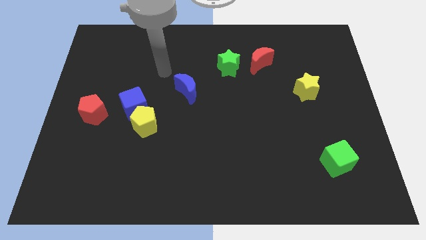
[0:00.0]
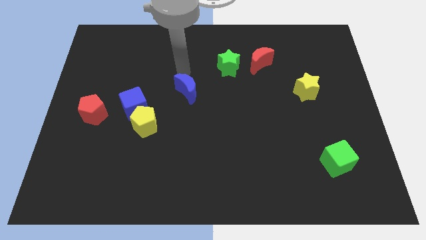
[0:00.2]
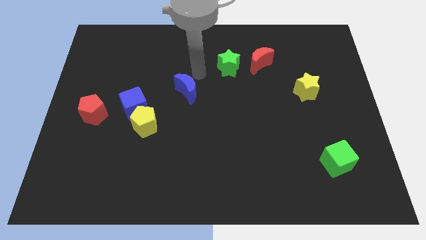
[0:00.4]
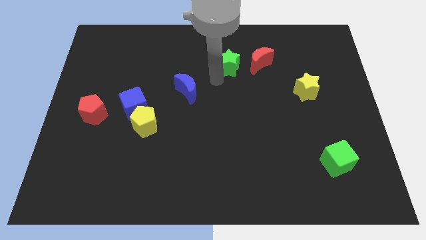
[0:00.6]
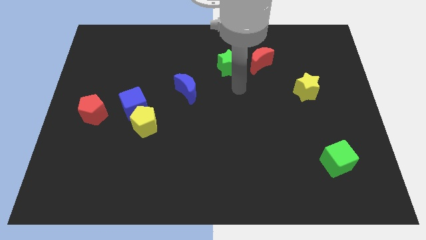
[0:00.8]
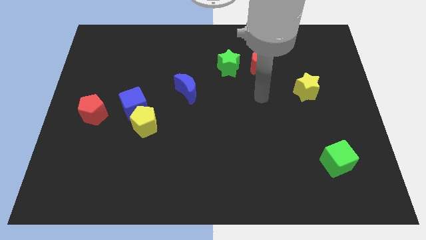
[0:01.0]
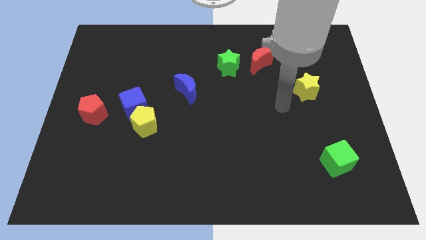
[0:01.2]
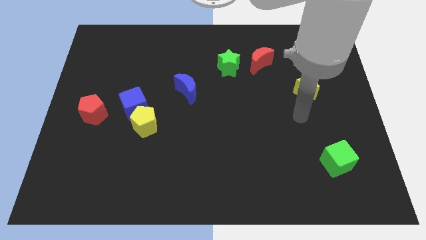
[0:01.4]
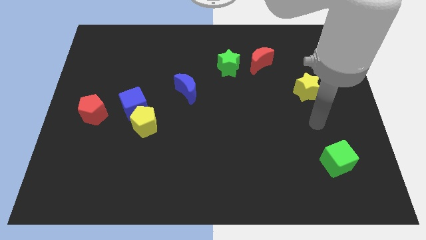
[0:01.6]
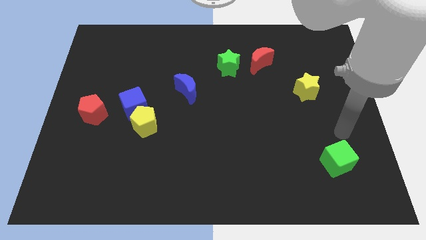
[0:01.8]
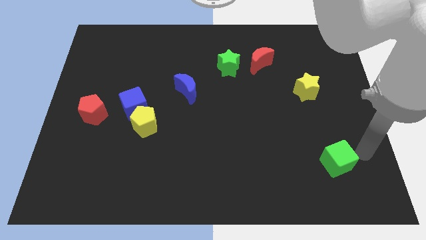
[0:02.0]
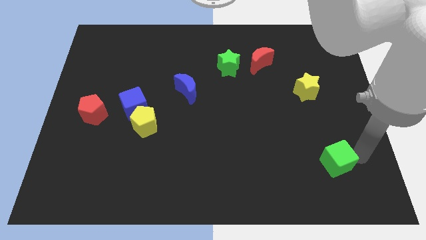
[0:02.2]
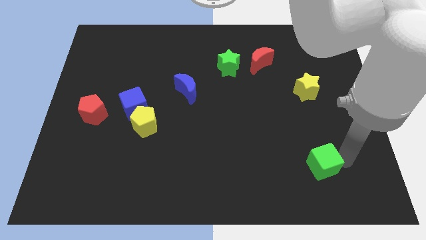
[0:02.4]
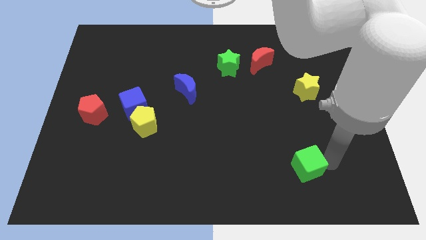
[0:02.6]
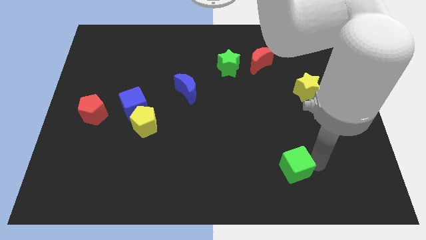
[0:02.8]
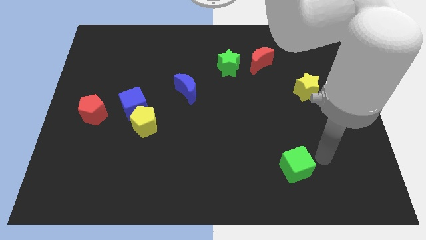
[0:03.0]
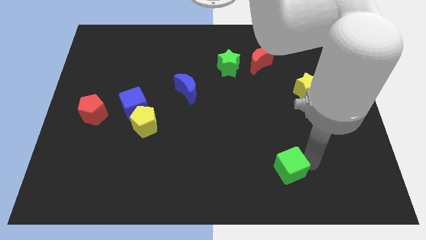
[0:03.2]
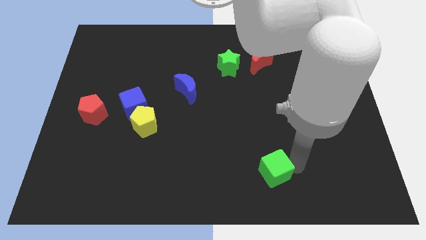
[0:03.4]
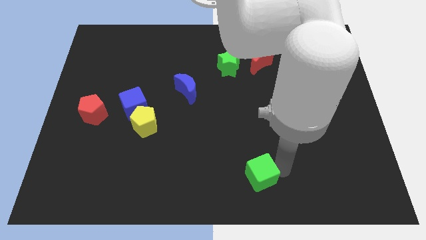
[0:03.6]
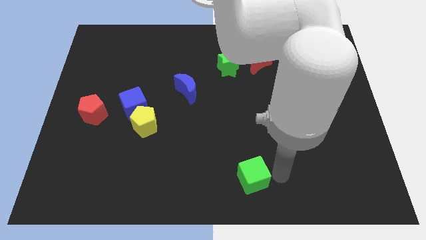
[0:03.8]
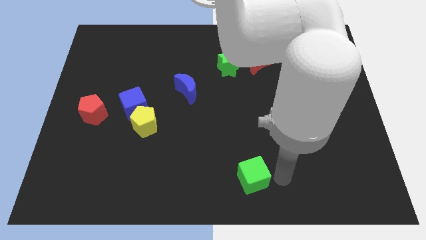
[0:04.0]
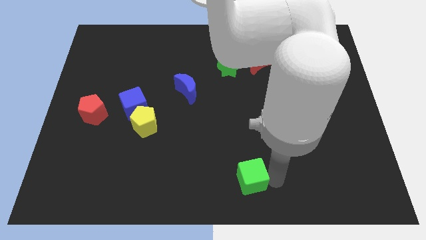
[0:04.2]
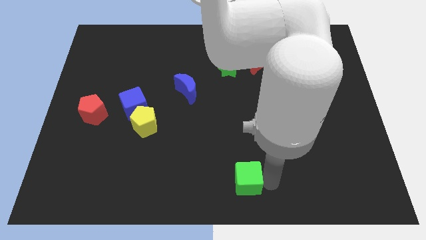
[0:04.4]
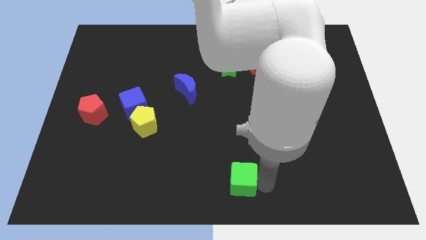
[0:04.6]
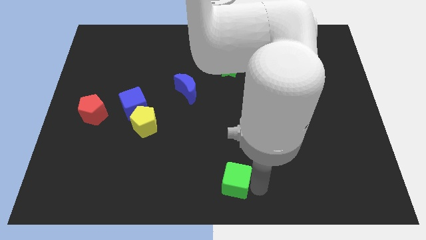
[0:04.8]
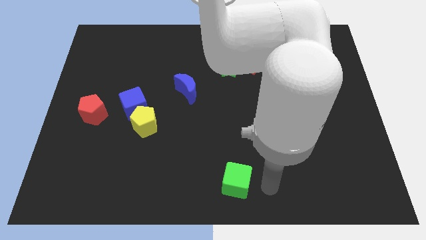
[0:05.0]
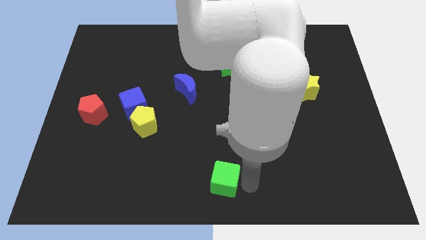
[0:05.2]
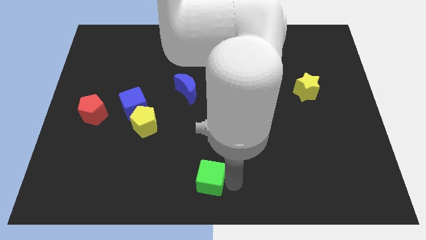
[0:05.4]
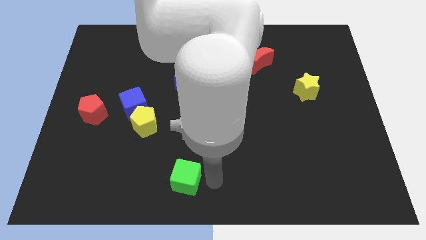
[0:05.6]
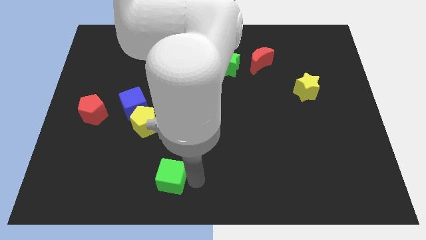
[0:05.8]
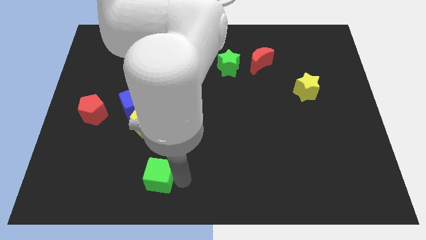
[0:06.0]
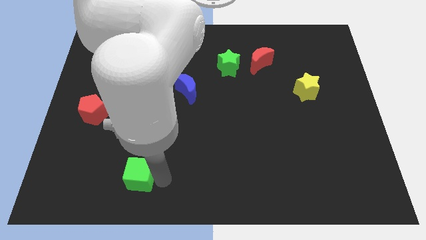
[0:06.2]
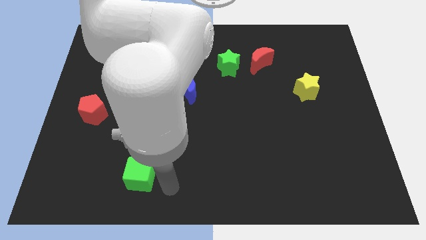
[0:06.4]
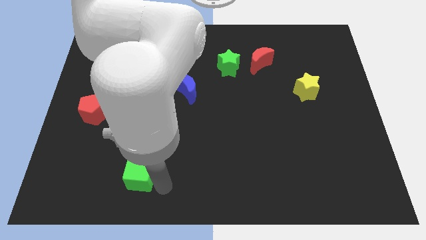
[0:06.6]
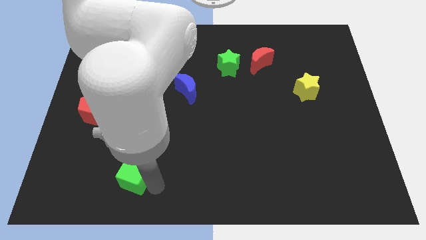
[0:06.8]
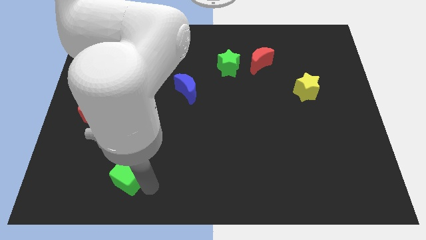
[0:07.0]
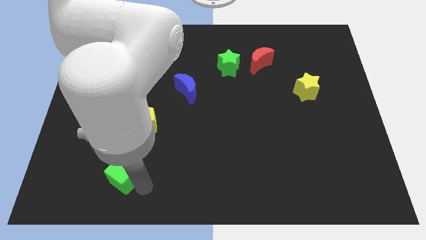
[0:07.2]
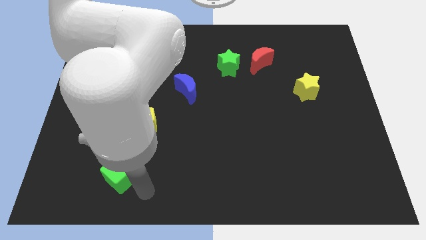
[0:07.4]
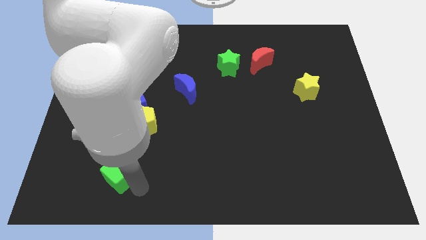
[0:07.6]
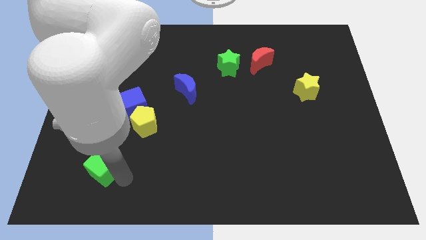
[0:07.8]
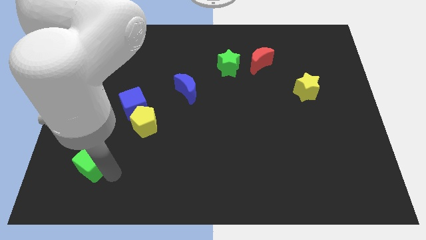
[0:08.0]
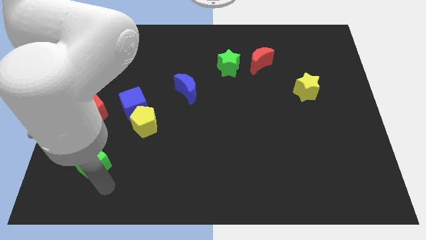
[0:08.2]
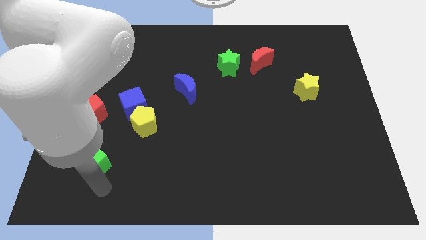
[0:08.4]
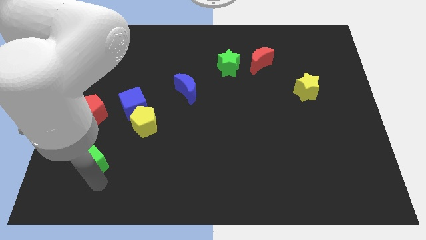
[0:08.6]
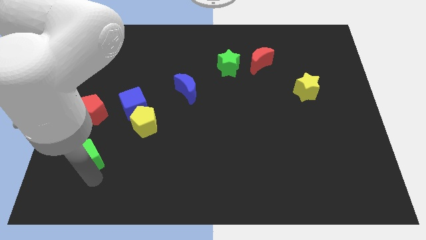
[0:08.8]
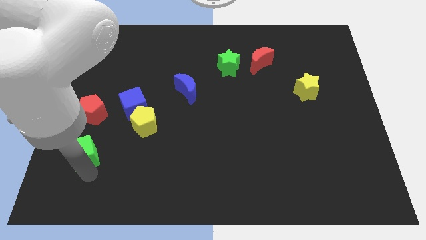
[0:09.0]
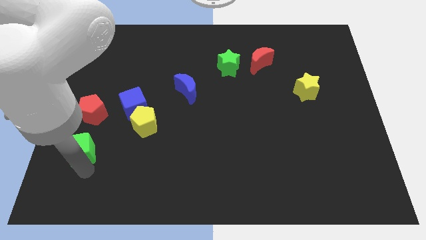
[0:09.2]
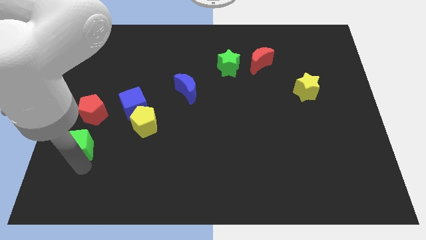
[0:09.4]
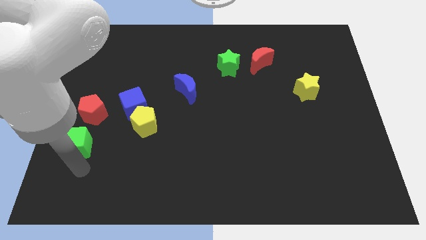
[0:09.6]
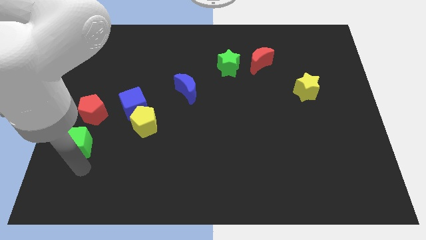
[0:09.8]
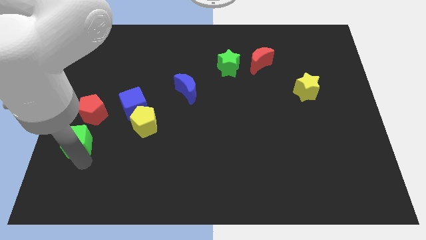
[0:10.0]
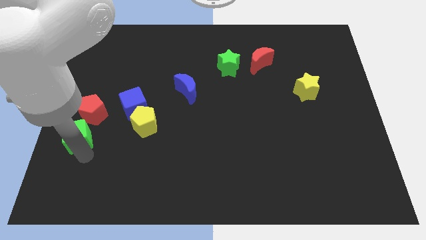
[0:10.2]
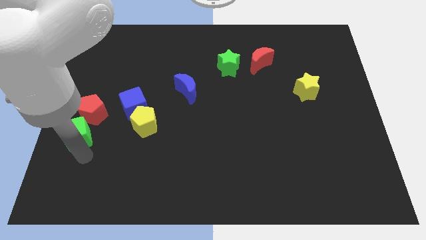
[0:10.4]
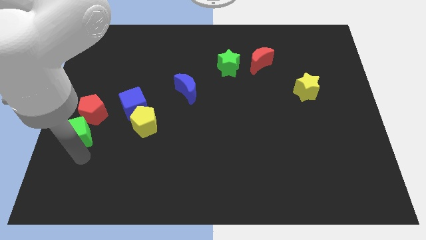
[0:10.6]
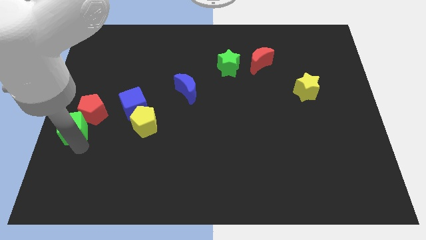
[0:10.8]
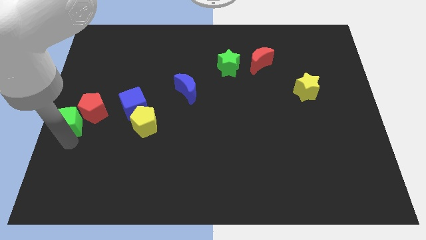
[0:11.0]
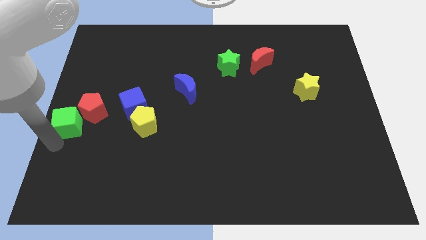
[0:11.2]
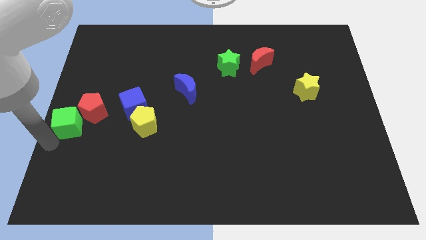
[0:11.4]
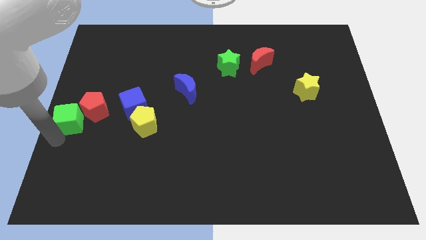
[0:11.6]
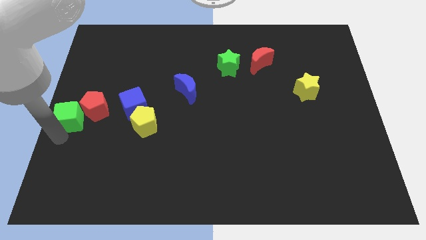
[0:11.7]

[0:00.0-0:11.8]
slide the green cube left of the blue cube

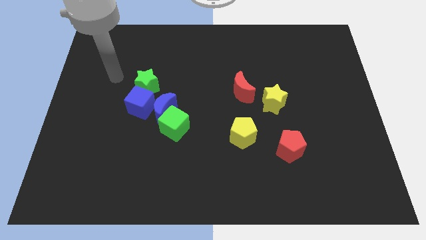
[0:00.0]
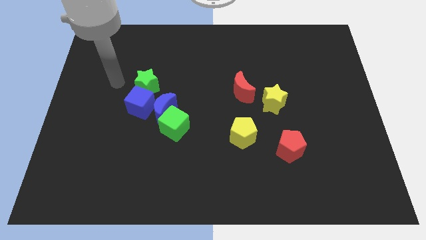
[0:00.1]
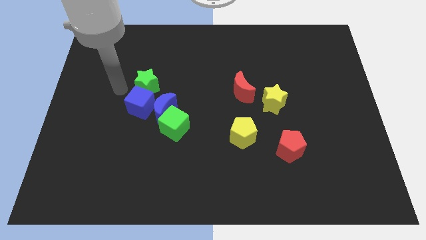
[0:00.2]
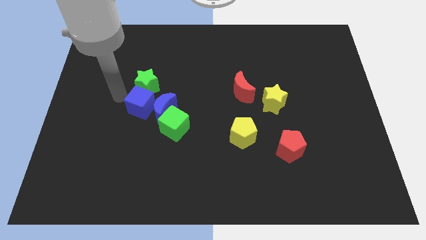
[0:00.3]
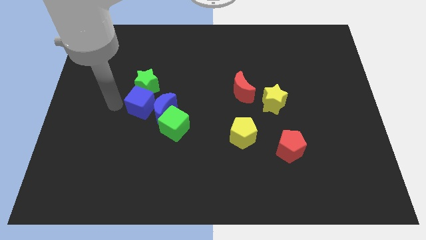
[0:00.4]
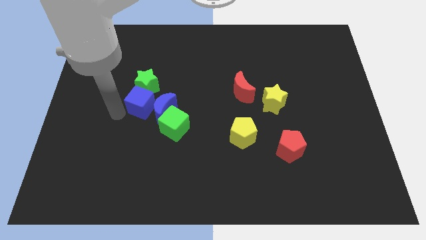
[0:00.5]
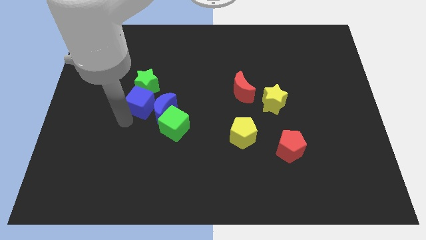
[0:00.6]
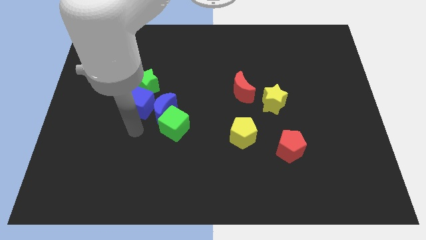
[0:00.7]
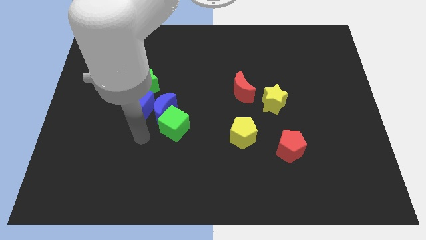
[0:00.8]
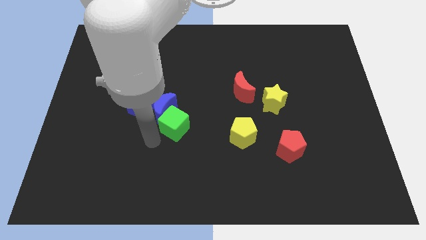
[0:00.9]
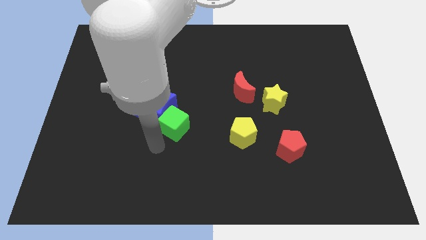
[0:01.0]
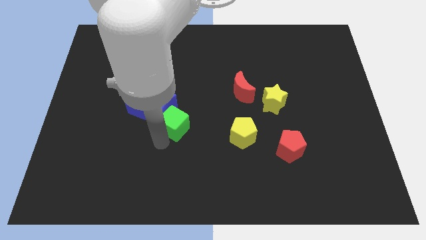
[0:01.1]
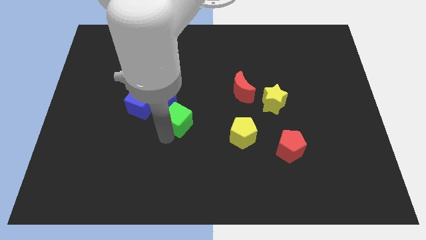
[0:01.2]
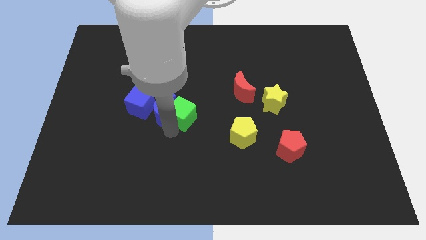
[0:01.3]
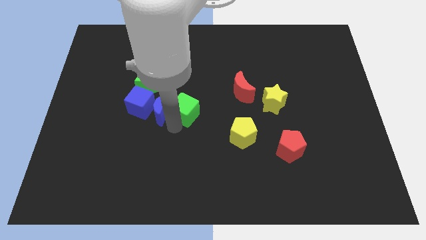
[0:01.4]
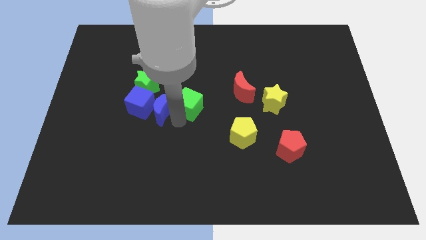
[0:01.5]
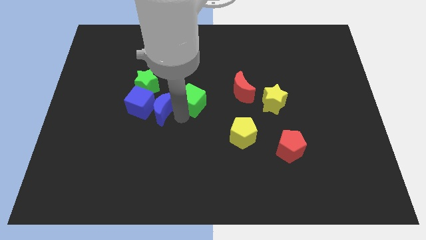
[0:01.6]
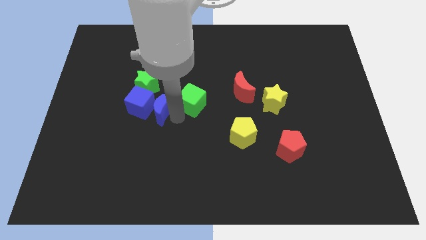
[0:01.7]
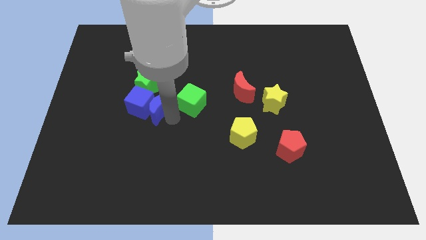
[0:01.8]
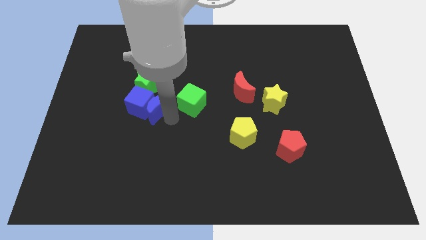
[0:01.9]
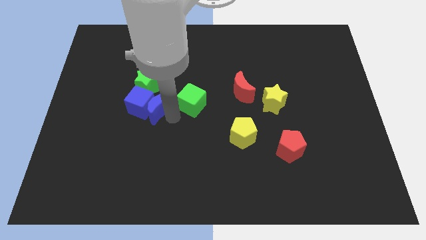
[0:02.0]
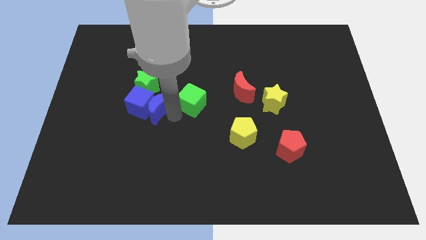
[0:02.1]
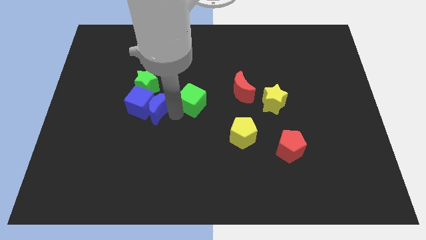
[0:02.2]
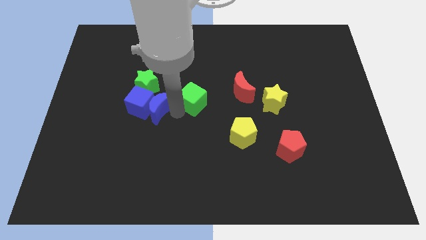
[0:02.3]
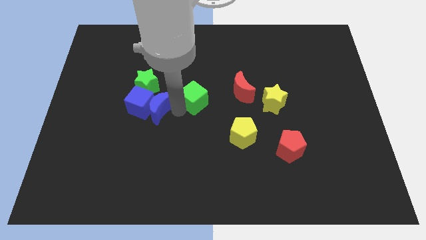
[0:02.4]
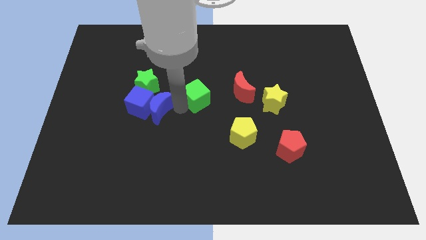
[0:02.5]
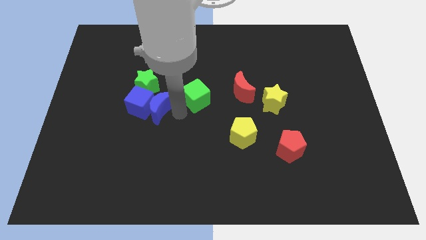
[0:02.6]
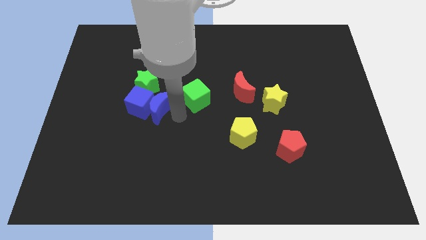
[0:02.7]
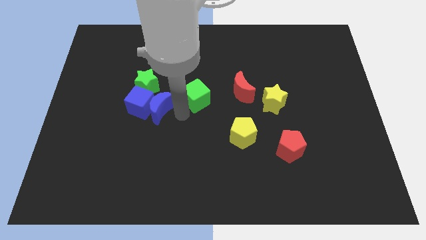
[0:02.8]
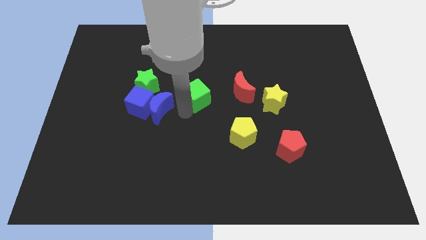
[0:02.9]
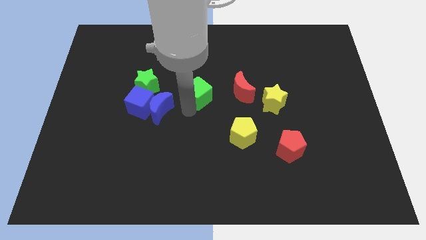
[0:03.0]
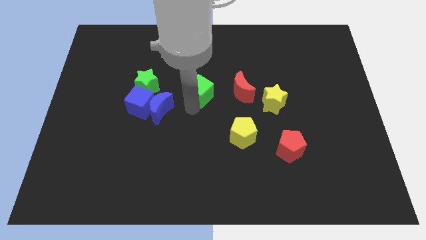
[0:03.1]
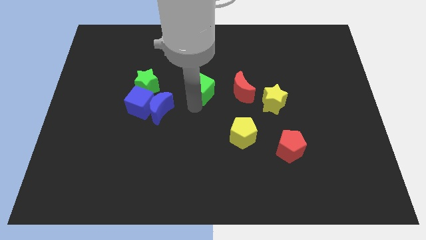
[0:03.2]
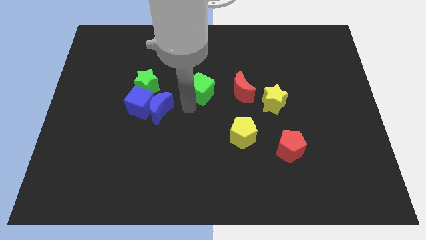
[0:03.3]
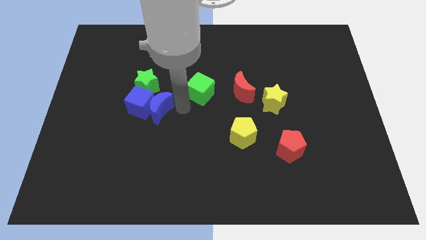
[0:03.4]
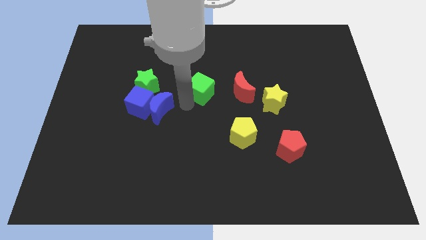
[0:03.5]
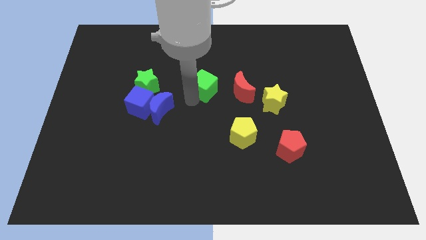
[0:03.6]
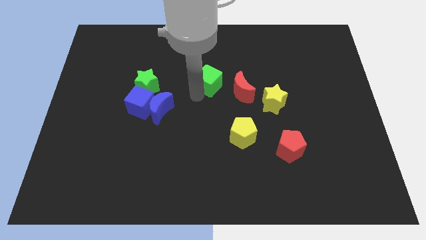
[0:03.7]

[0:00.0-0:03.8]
slide the green cube to the top left side of the red moon
